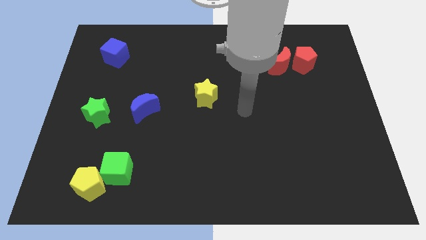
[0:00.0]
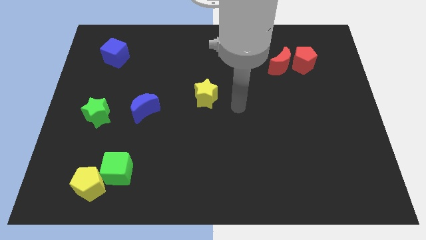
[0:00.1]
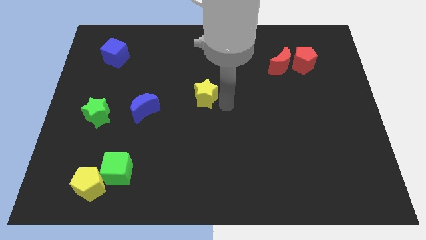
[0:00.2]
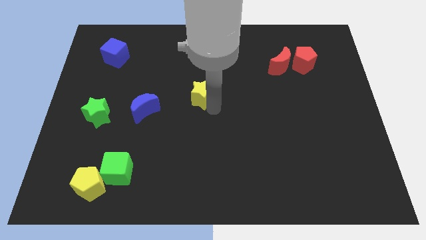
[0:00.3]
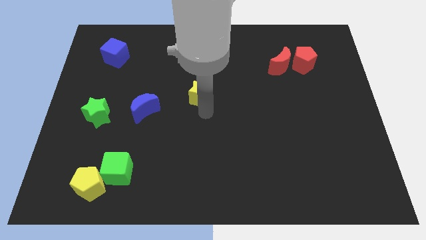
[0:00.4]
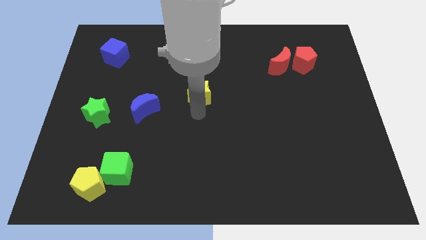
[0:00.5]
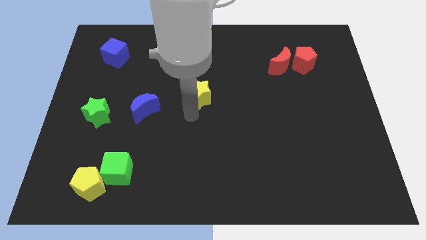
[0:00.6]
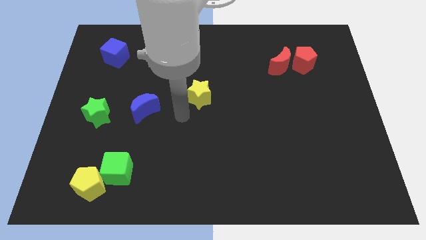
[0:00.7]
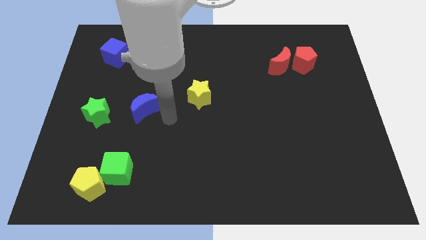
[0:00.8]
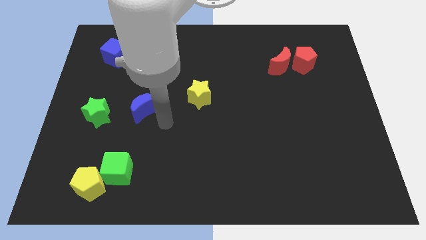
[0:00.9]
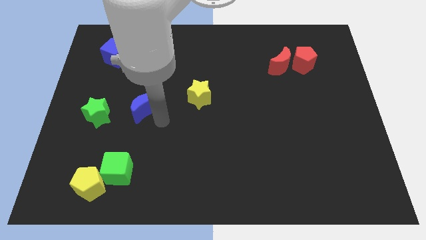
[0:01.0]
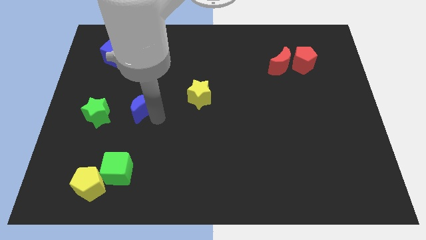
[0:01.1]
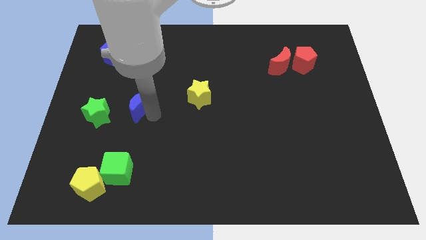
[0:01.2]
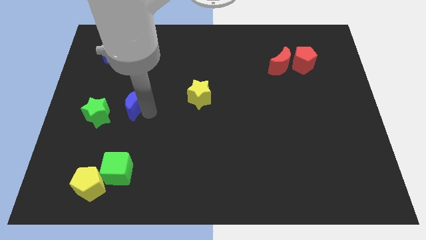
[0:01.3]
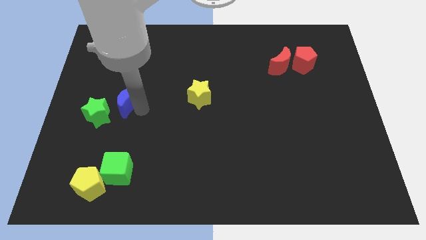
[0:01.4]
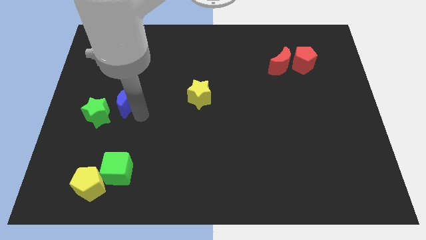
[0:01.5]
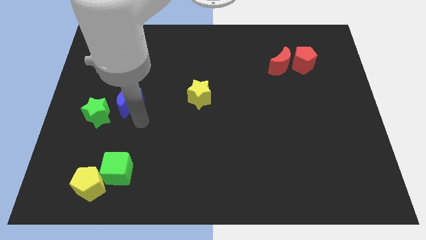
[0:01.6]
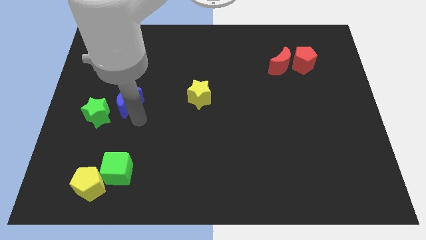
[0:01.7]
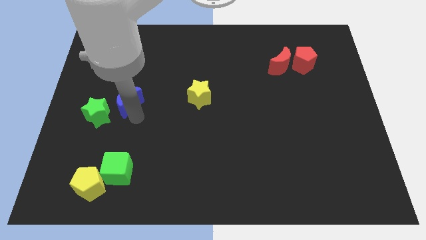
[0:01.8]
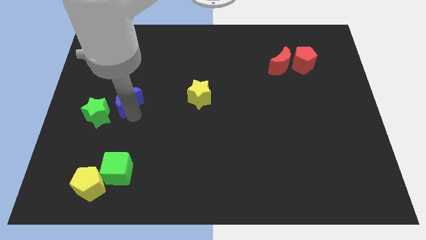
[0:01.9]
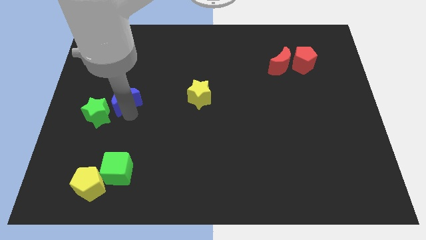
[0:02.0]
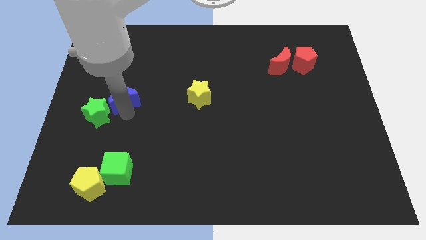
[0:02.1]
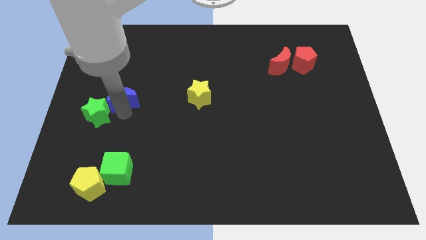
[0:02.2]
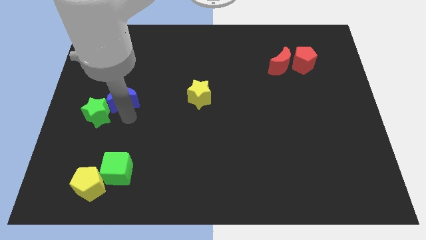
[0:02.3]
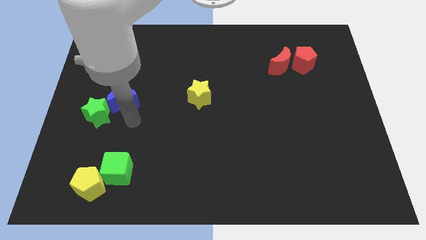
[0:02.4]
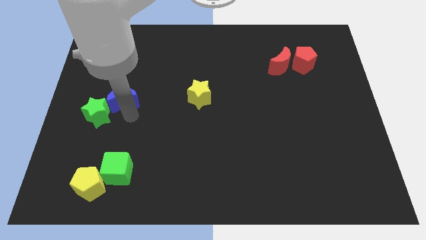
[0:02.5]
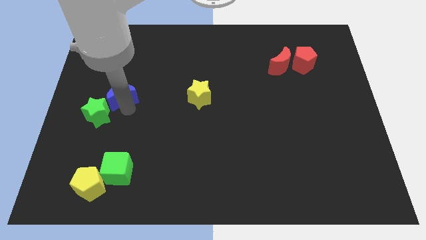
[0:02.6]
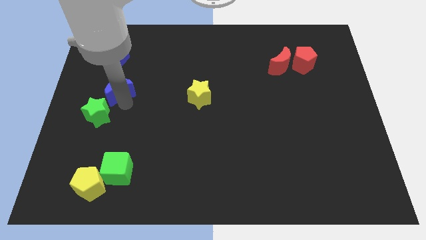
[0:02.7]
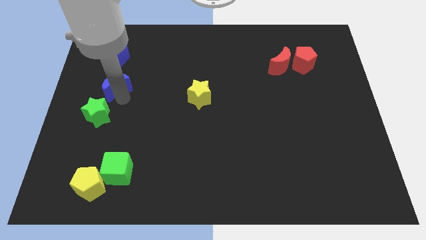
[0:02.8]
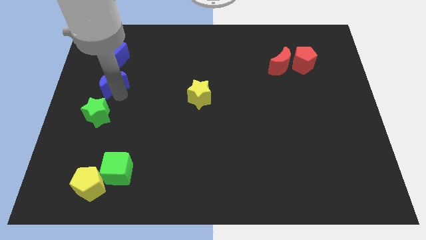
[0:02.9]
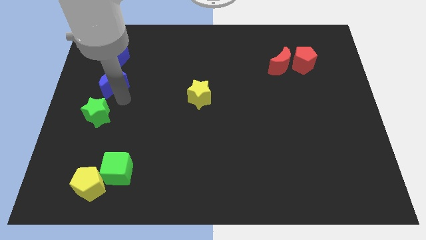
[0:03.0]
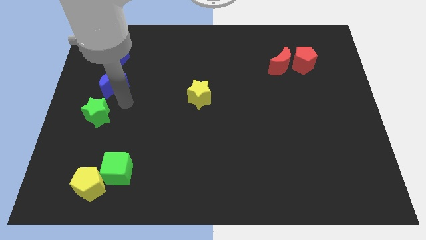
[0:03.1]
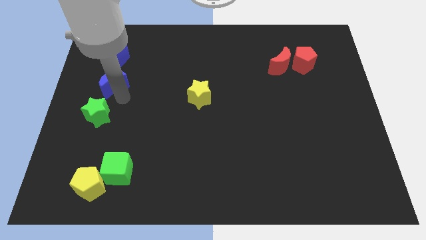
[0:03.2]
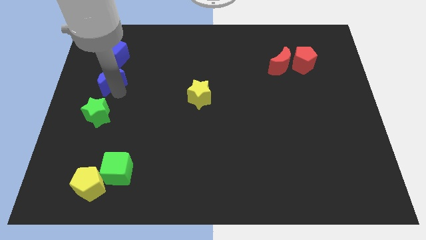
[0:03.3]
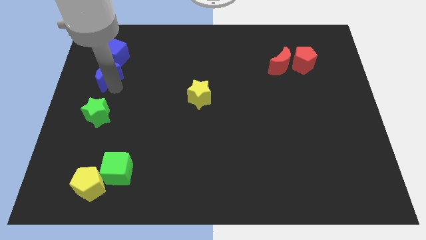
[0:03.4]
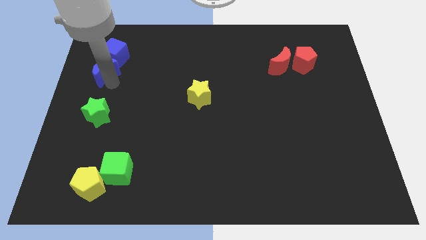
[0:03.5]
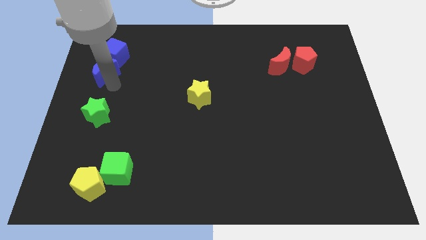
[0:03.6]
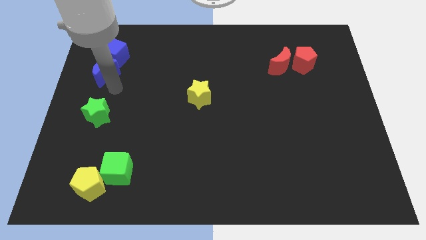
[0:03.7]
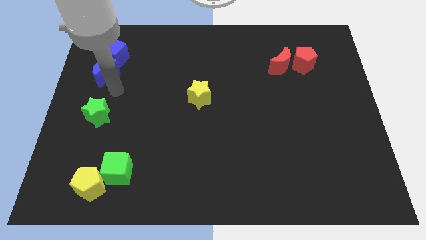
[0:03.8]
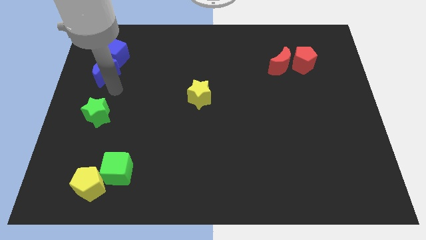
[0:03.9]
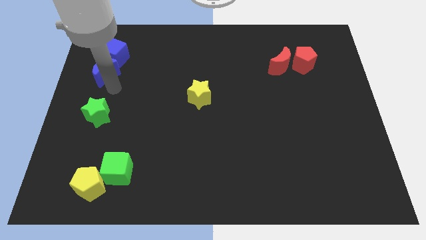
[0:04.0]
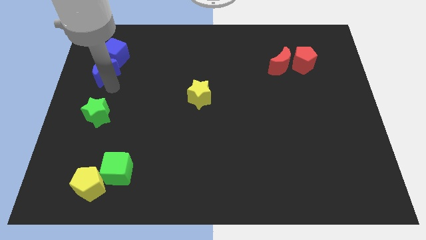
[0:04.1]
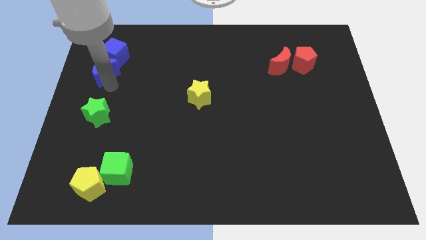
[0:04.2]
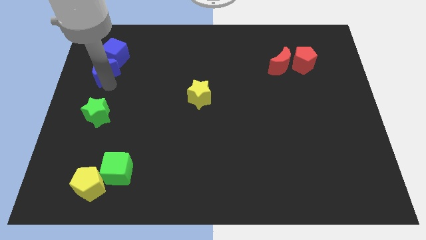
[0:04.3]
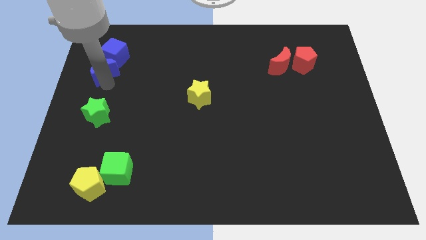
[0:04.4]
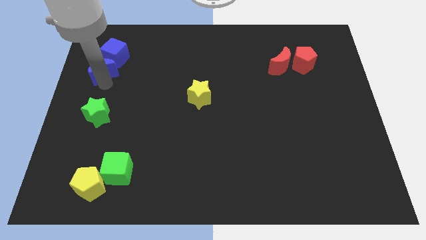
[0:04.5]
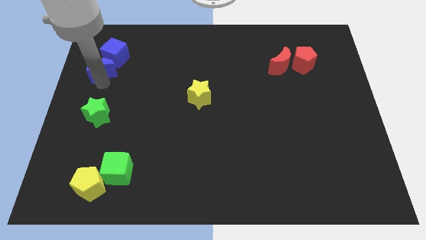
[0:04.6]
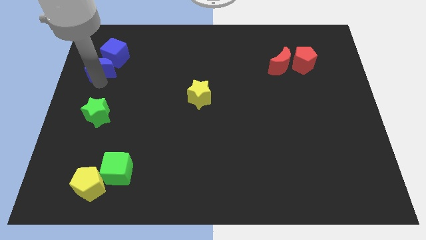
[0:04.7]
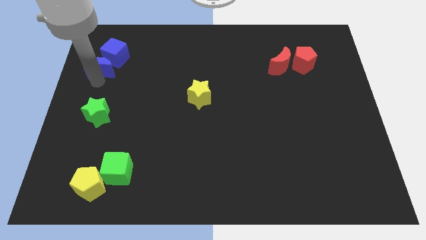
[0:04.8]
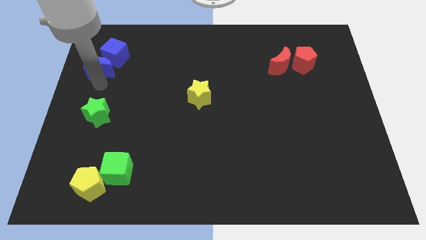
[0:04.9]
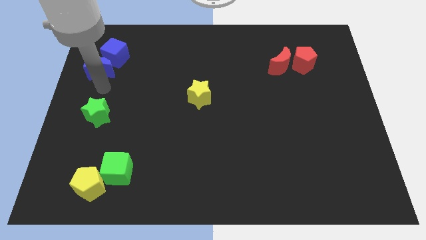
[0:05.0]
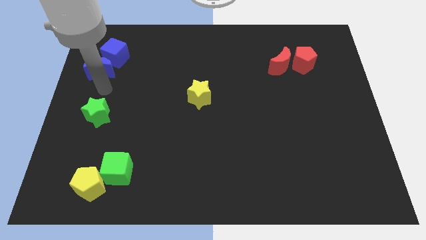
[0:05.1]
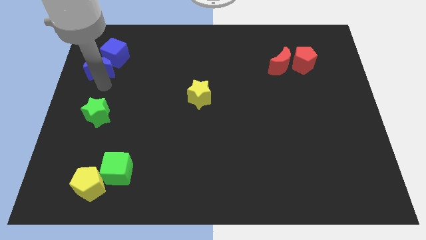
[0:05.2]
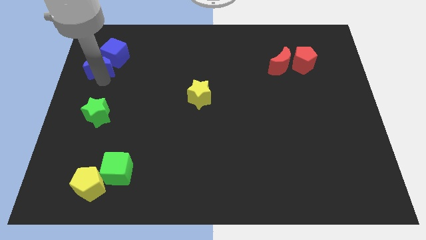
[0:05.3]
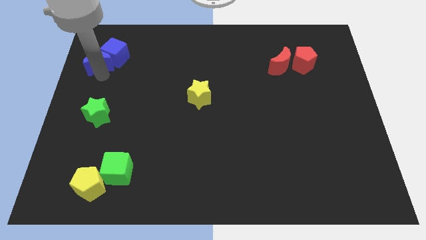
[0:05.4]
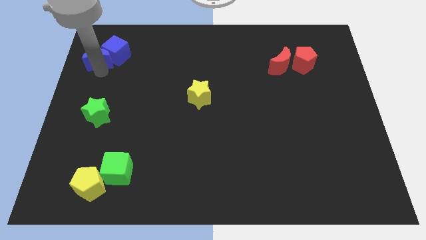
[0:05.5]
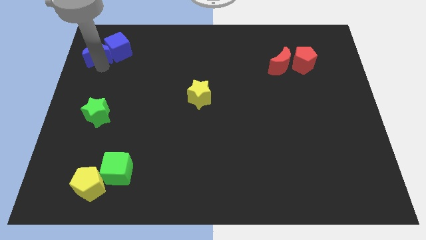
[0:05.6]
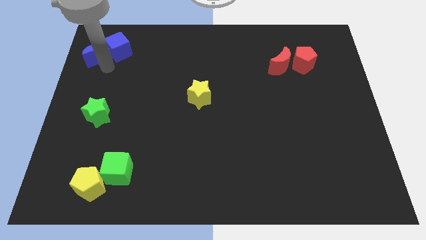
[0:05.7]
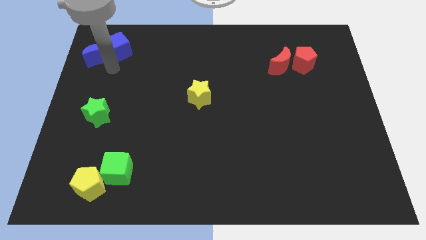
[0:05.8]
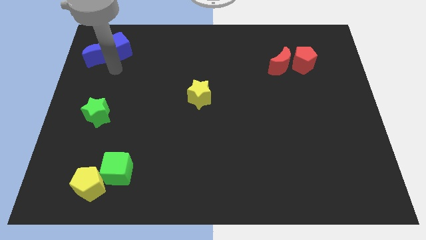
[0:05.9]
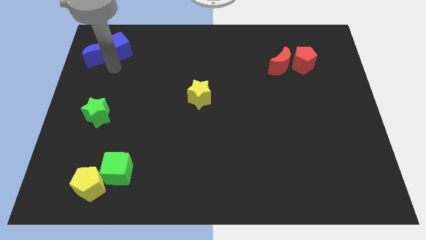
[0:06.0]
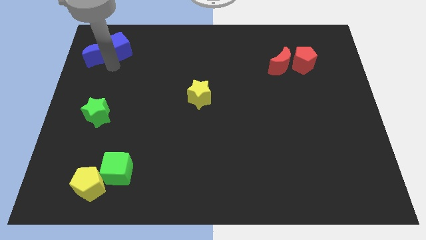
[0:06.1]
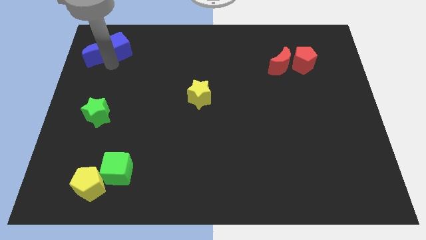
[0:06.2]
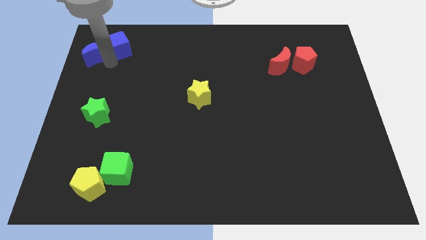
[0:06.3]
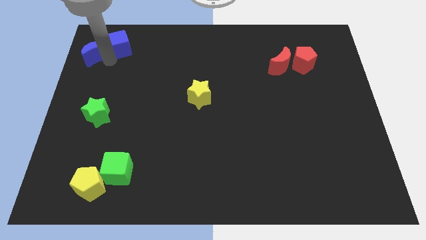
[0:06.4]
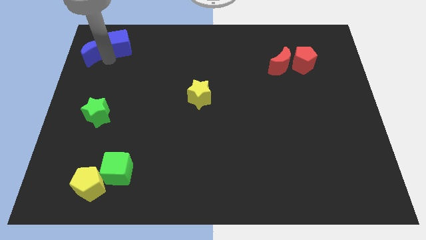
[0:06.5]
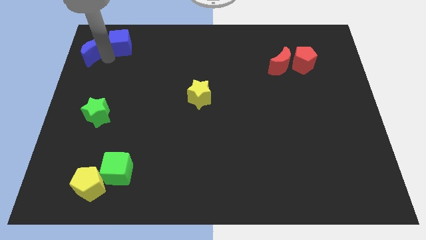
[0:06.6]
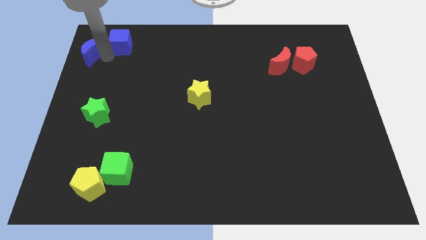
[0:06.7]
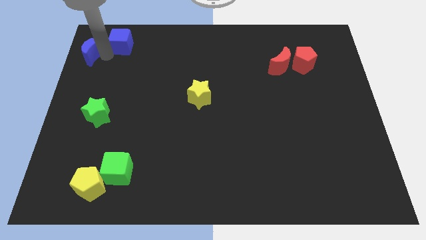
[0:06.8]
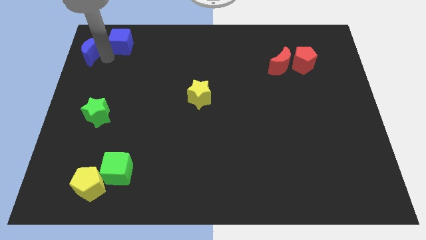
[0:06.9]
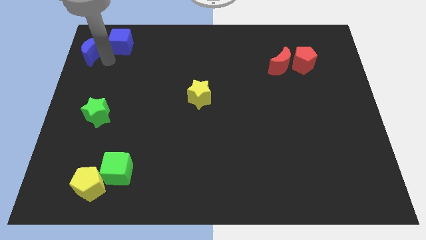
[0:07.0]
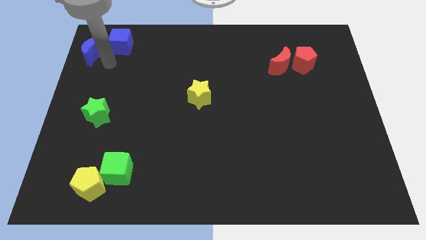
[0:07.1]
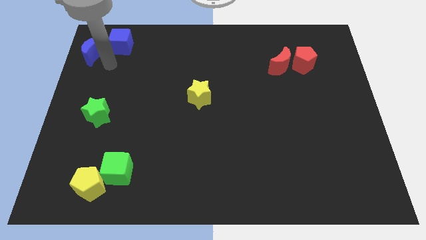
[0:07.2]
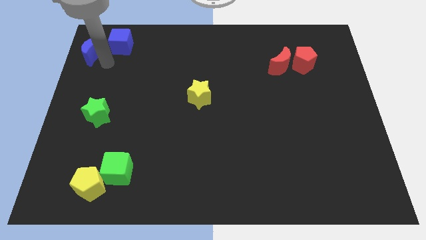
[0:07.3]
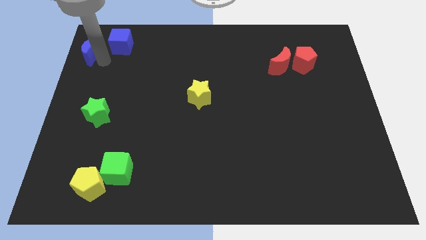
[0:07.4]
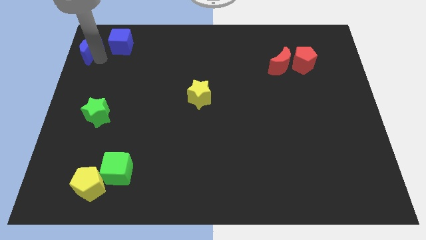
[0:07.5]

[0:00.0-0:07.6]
slide the blue moon to the upper left corner
